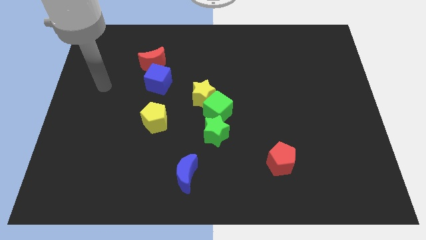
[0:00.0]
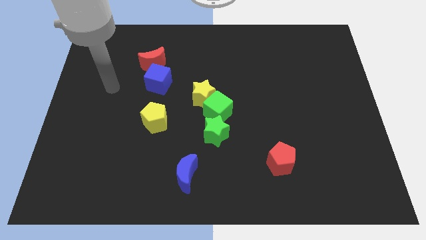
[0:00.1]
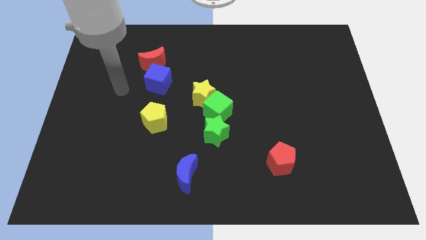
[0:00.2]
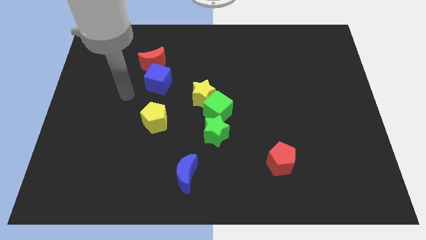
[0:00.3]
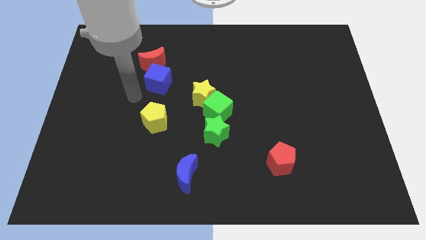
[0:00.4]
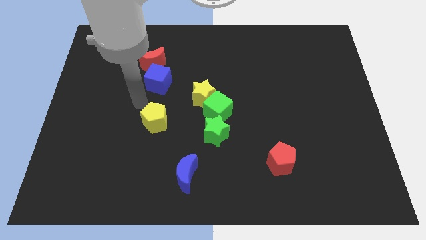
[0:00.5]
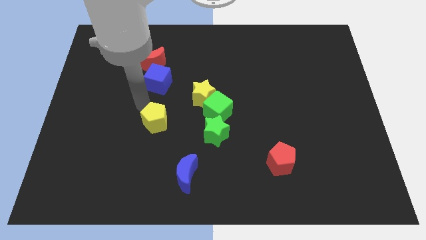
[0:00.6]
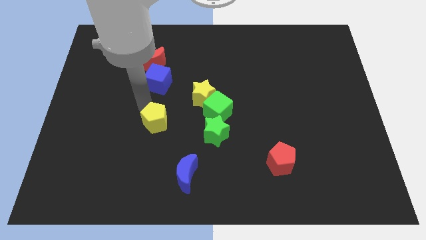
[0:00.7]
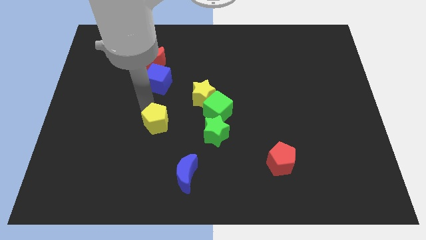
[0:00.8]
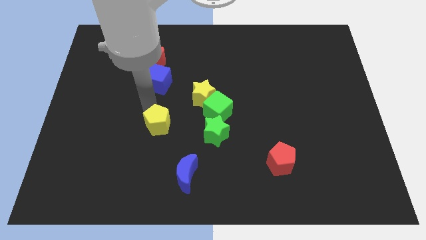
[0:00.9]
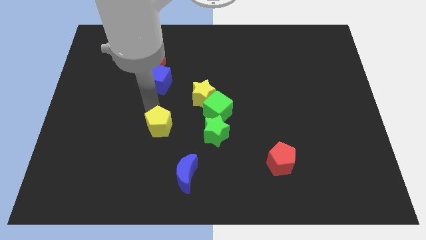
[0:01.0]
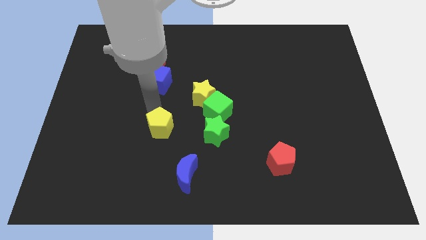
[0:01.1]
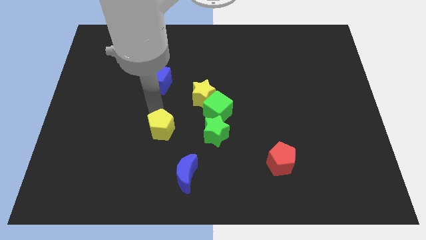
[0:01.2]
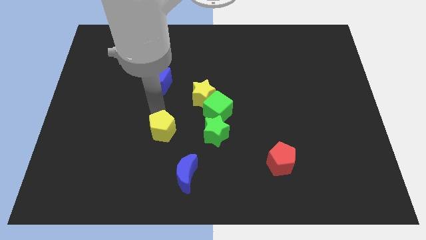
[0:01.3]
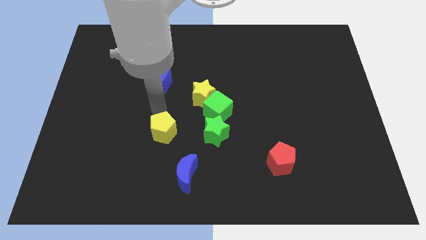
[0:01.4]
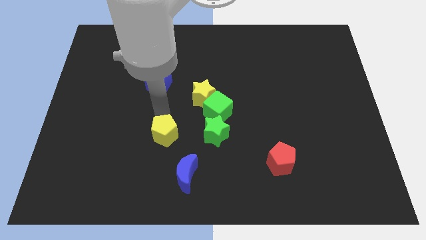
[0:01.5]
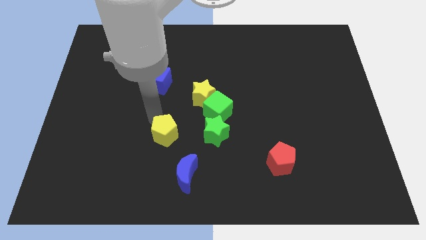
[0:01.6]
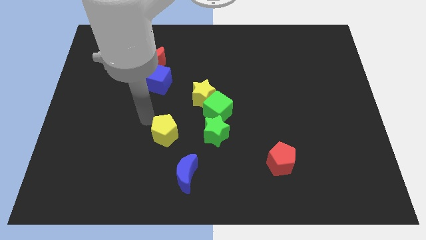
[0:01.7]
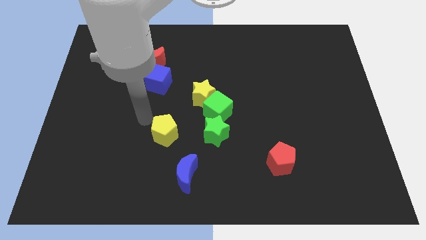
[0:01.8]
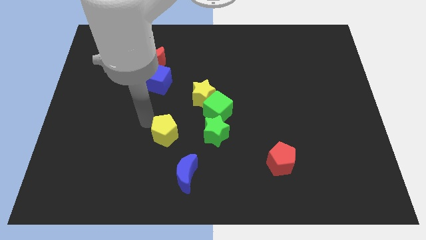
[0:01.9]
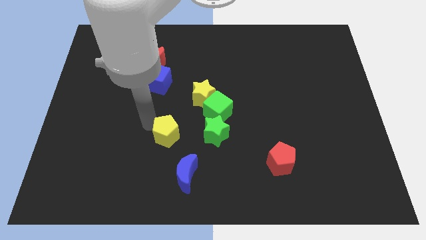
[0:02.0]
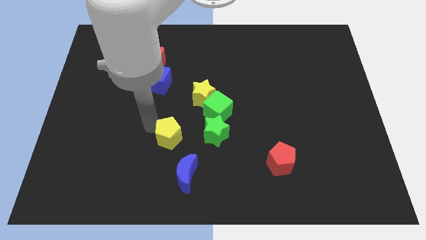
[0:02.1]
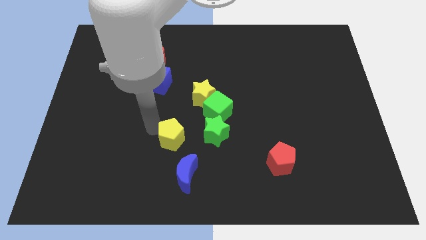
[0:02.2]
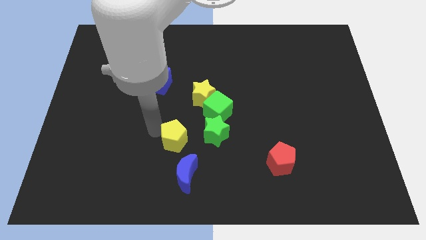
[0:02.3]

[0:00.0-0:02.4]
slide the yellow pentagon a bit diagonally down and to the right

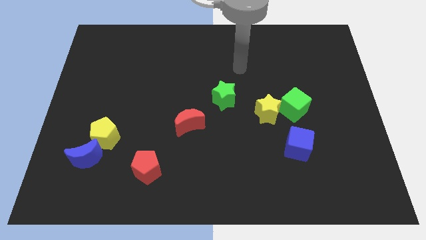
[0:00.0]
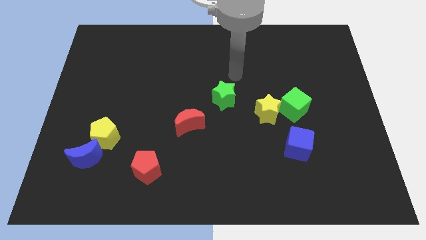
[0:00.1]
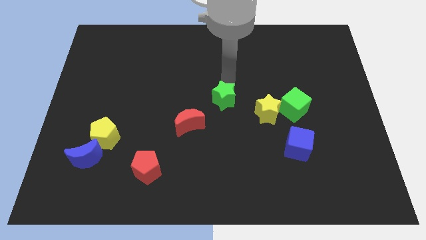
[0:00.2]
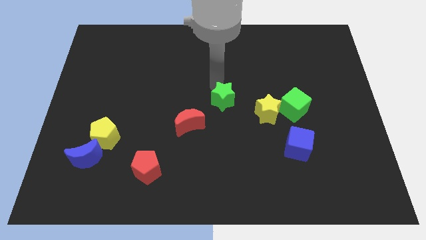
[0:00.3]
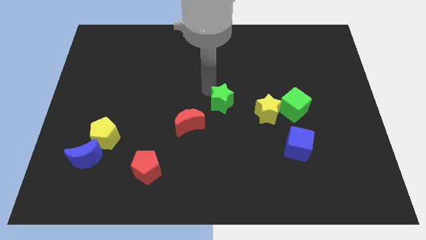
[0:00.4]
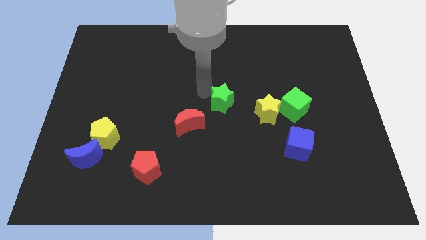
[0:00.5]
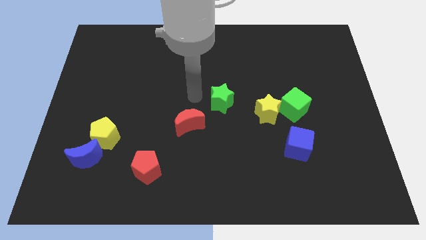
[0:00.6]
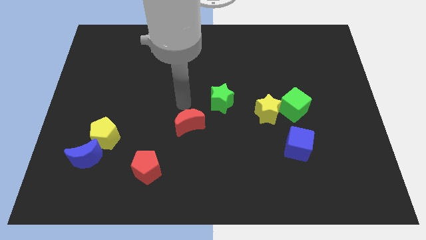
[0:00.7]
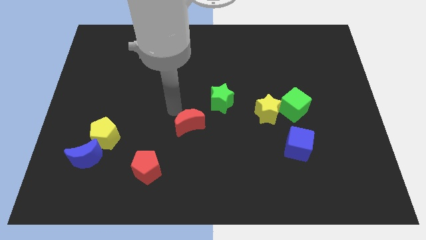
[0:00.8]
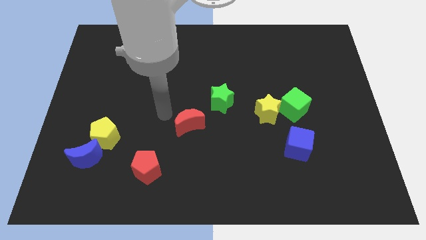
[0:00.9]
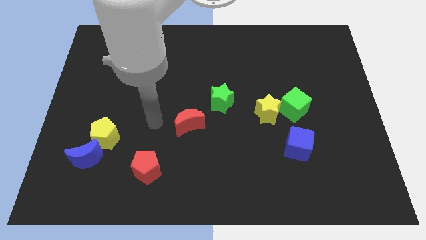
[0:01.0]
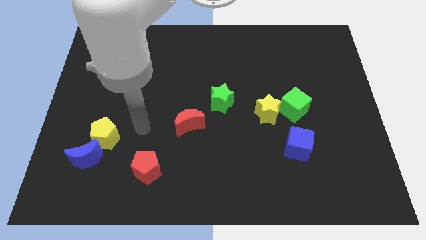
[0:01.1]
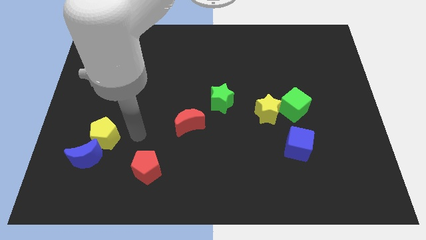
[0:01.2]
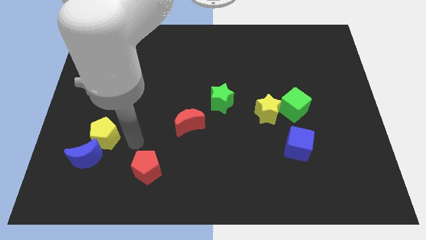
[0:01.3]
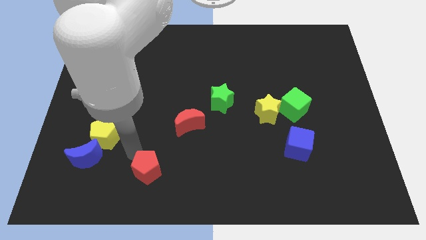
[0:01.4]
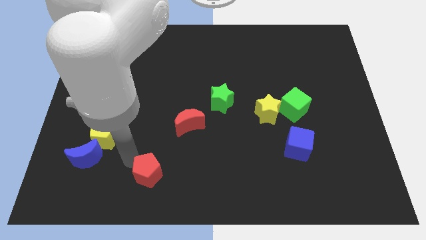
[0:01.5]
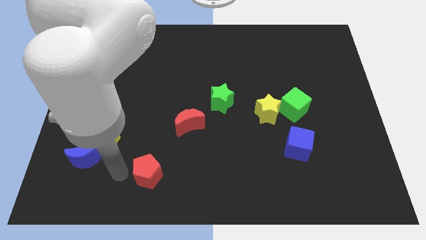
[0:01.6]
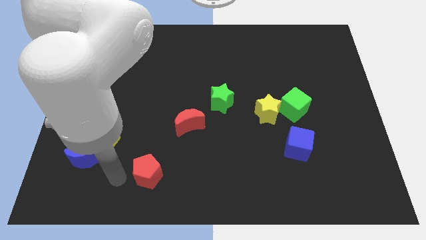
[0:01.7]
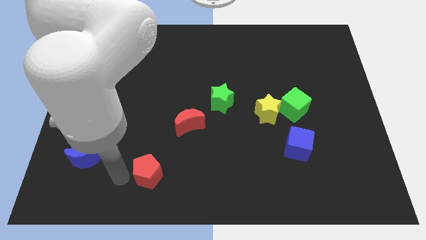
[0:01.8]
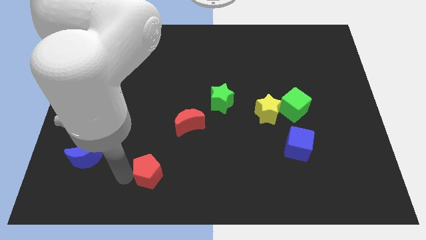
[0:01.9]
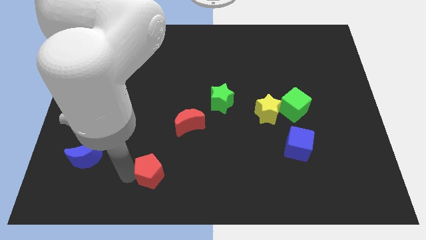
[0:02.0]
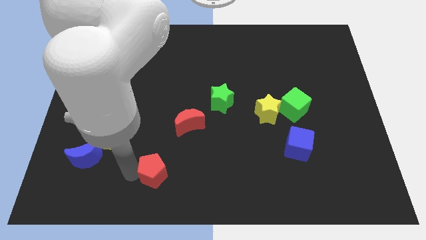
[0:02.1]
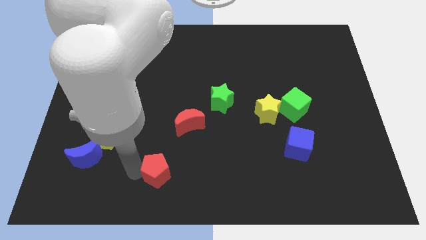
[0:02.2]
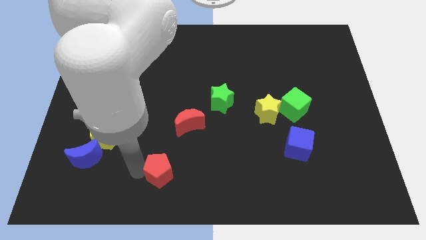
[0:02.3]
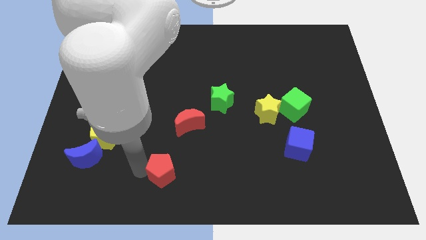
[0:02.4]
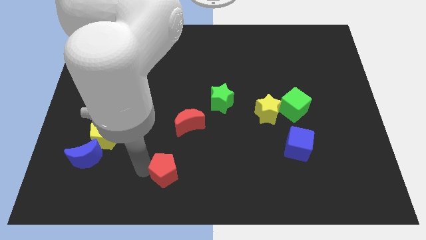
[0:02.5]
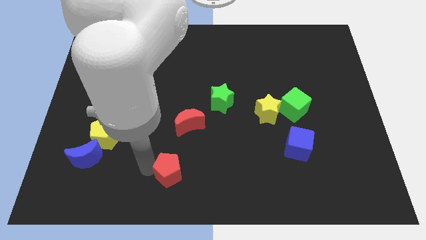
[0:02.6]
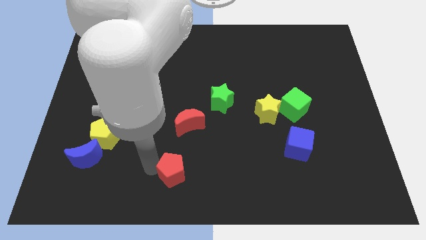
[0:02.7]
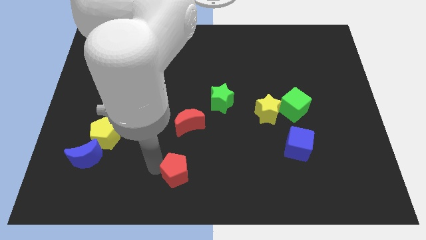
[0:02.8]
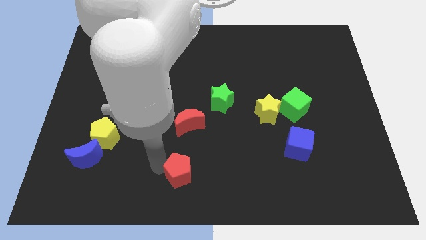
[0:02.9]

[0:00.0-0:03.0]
slightly slide the red pentagon to the right

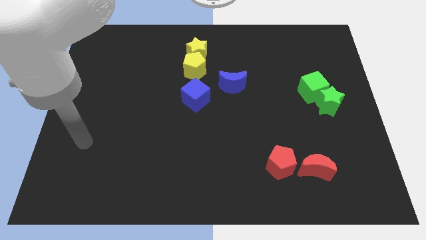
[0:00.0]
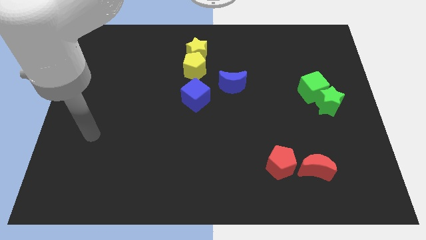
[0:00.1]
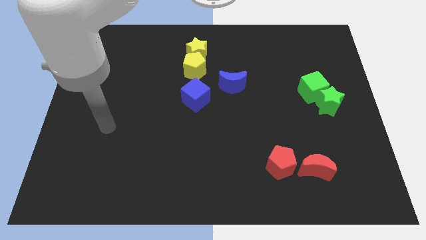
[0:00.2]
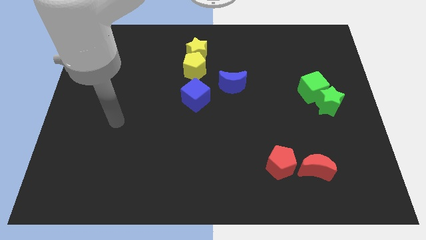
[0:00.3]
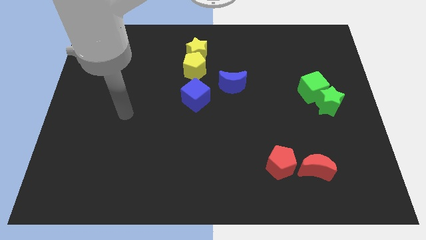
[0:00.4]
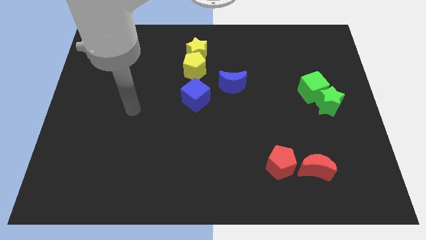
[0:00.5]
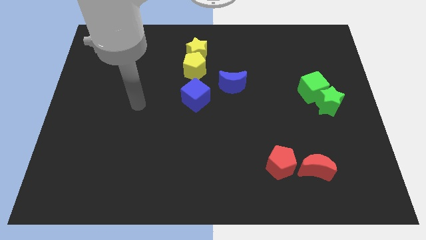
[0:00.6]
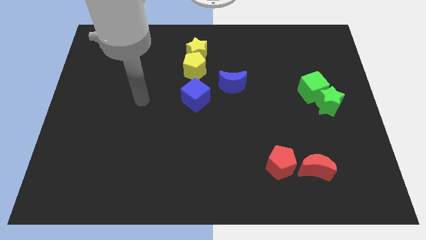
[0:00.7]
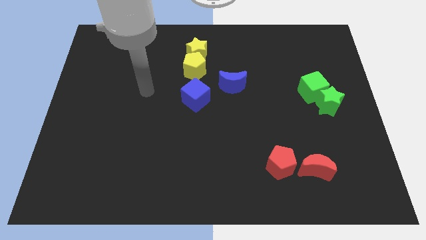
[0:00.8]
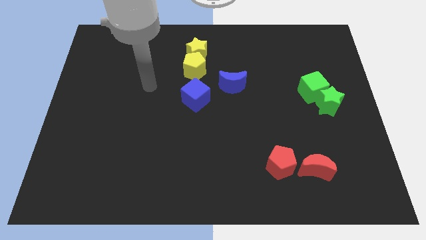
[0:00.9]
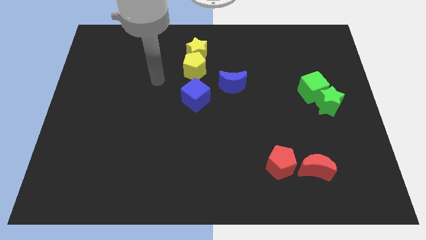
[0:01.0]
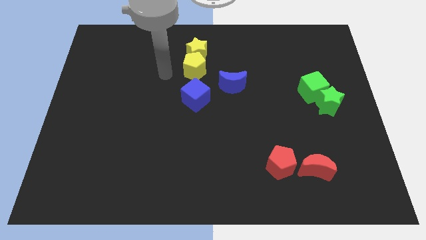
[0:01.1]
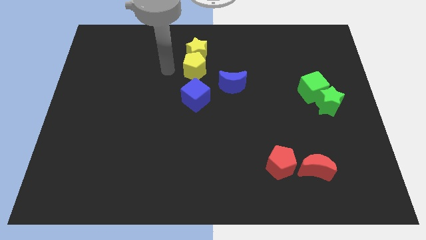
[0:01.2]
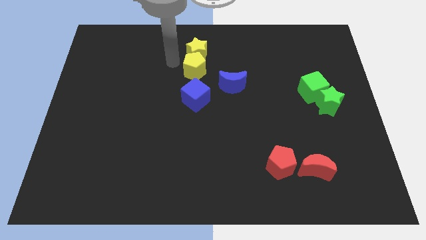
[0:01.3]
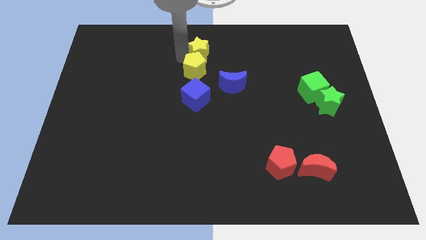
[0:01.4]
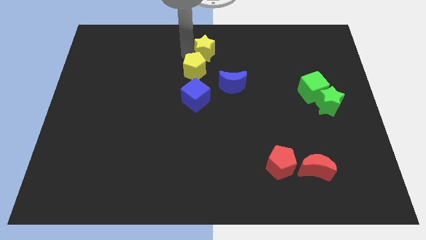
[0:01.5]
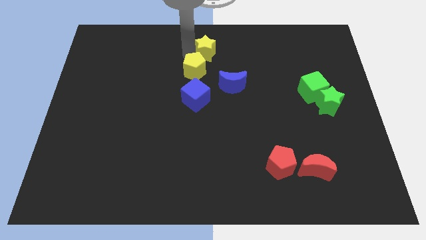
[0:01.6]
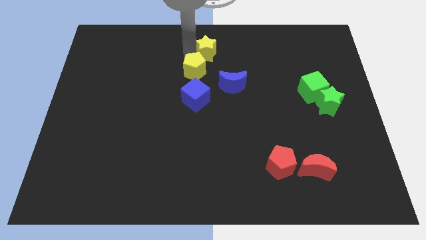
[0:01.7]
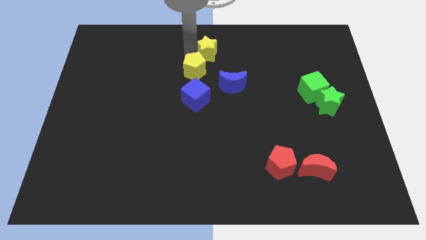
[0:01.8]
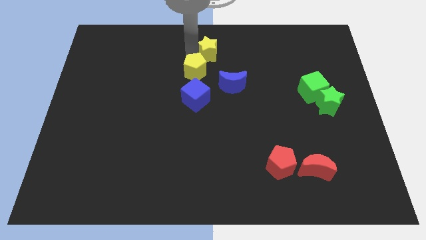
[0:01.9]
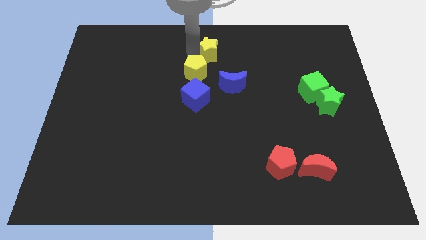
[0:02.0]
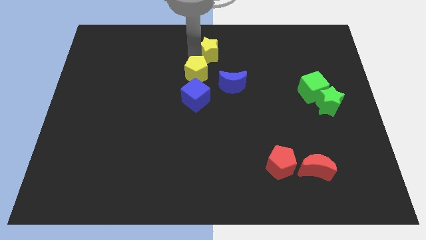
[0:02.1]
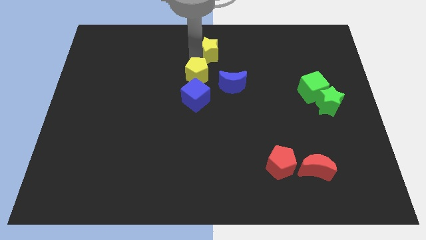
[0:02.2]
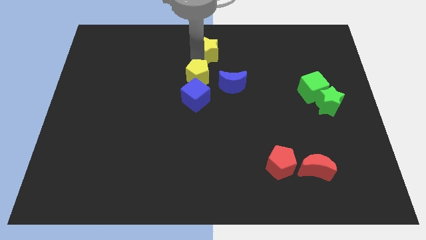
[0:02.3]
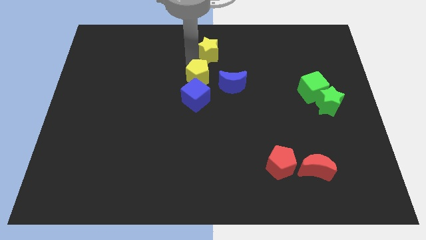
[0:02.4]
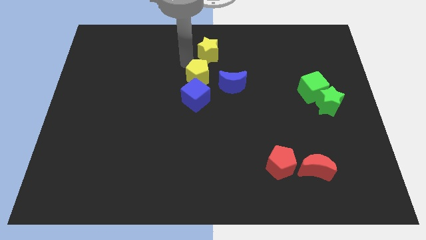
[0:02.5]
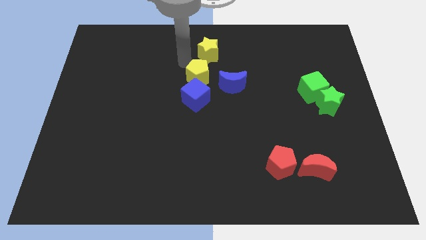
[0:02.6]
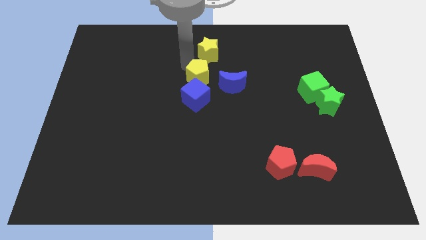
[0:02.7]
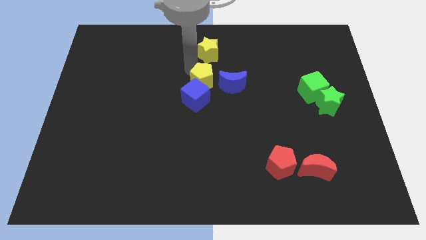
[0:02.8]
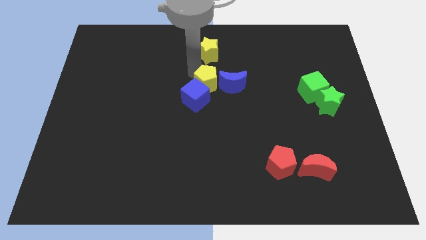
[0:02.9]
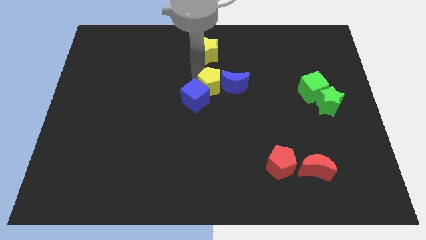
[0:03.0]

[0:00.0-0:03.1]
move the yellow pentagon a bit down and to the right diagonally
